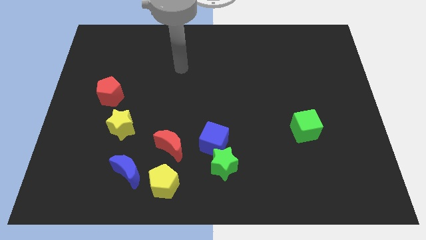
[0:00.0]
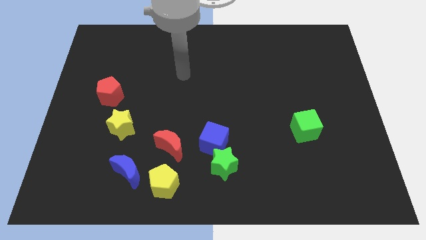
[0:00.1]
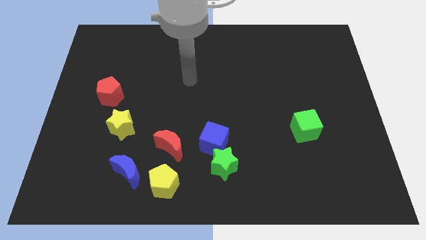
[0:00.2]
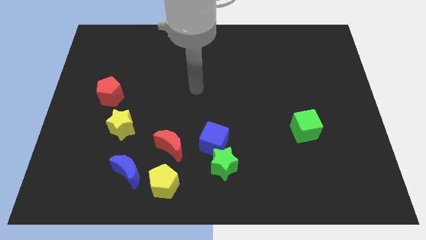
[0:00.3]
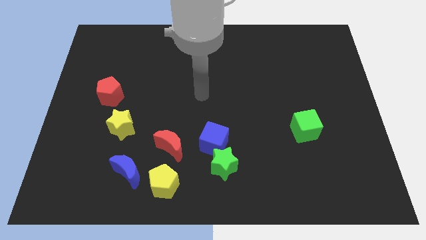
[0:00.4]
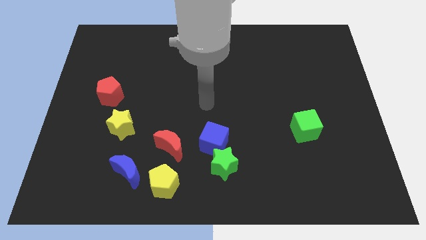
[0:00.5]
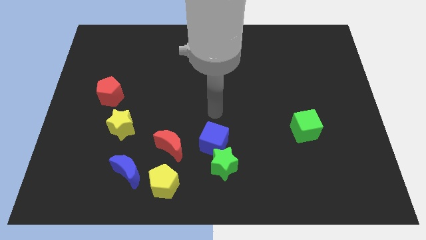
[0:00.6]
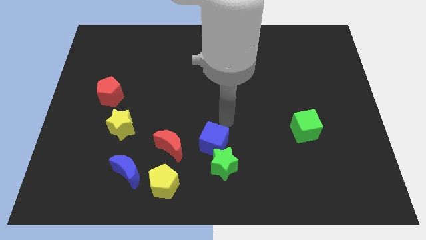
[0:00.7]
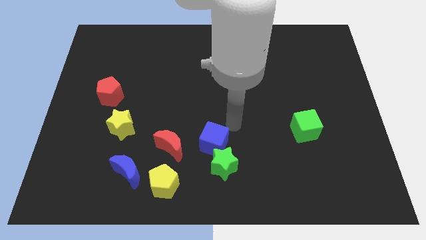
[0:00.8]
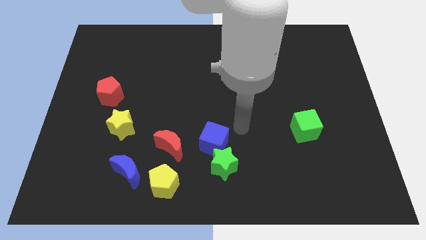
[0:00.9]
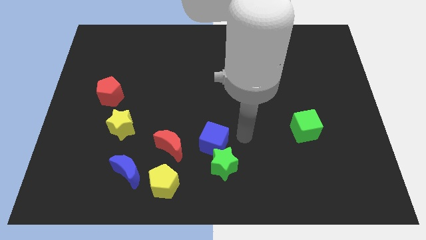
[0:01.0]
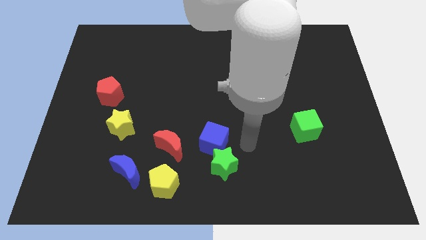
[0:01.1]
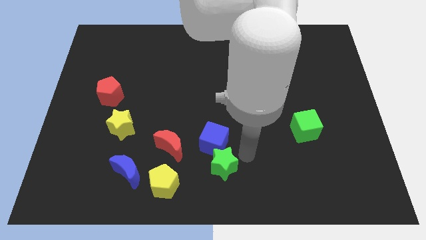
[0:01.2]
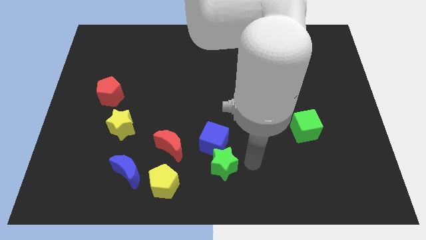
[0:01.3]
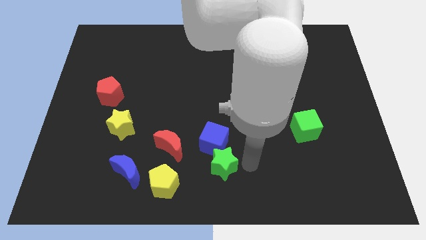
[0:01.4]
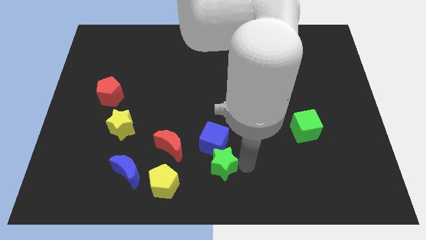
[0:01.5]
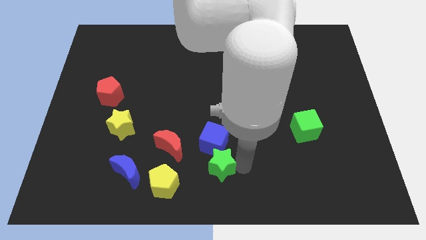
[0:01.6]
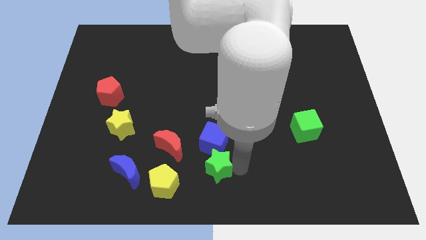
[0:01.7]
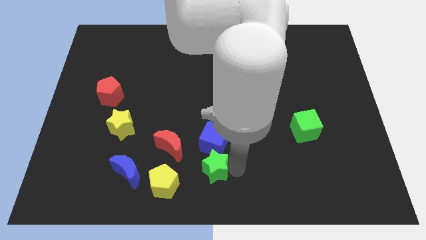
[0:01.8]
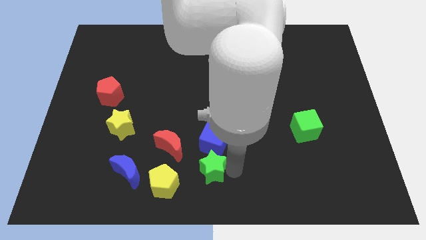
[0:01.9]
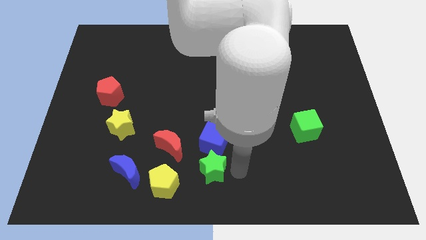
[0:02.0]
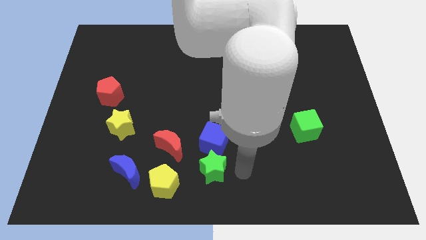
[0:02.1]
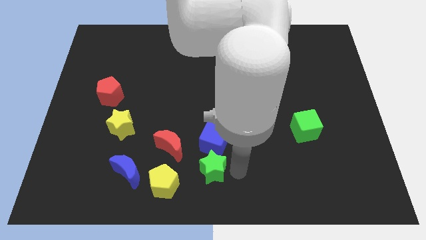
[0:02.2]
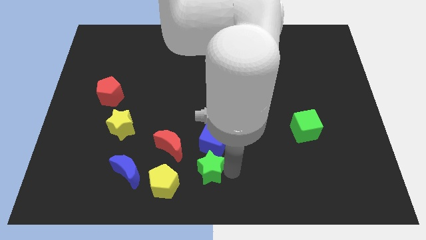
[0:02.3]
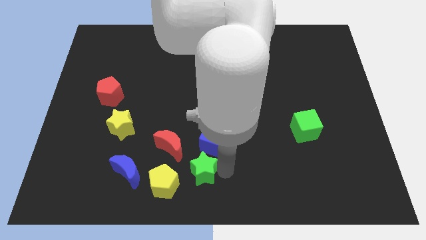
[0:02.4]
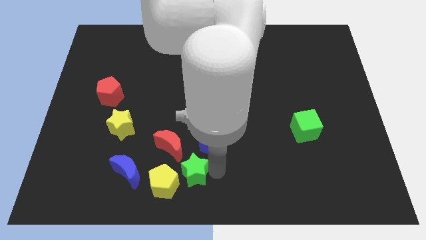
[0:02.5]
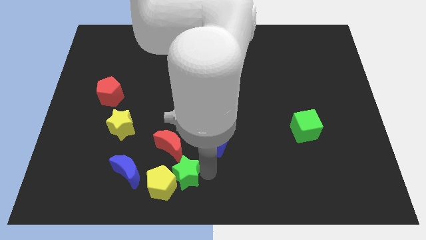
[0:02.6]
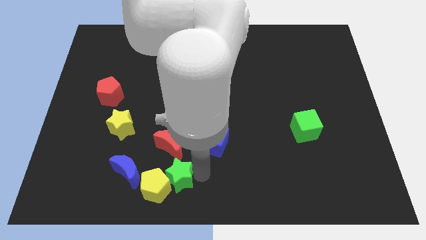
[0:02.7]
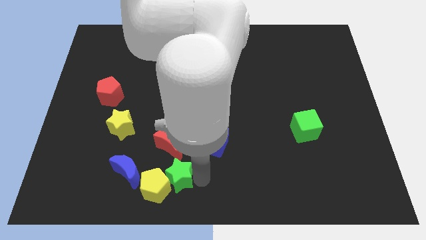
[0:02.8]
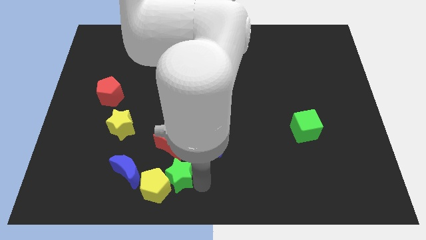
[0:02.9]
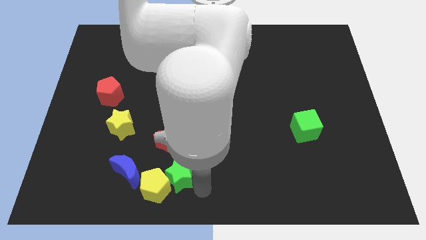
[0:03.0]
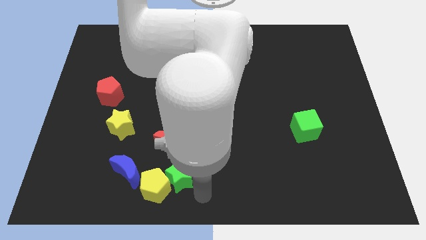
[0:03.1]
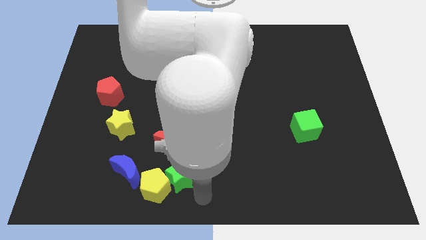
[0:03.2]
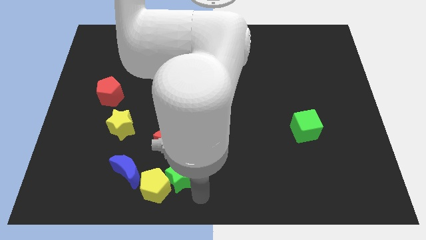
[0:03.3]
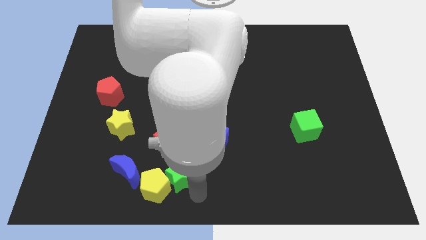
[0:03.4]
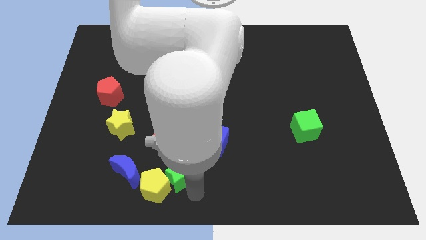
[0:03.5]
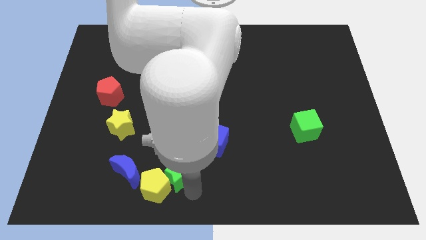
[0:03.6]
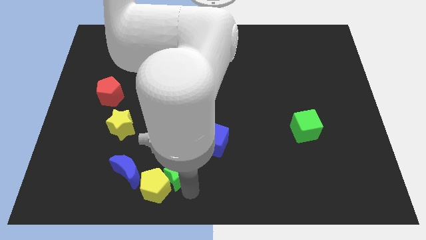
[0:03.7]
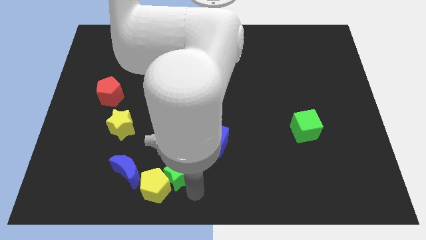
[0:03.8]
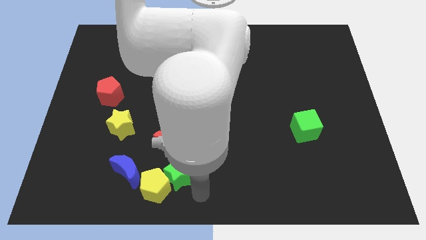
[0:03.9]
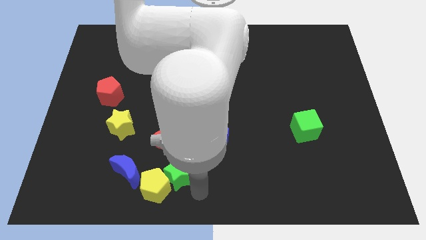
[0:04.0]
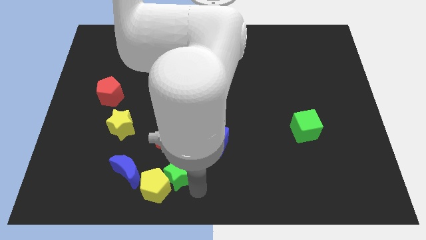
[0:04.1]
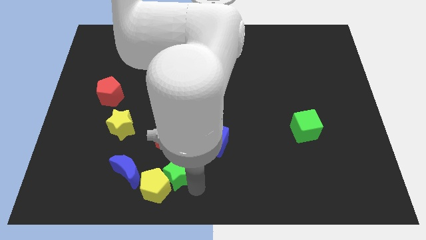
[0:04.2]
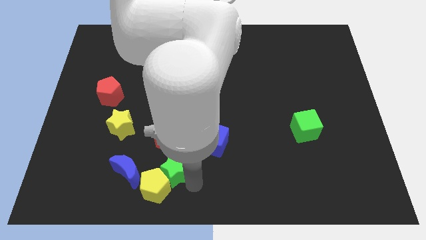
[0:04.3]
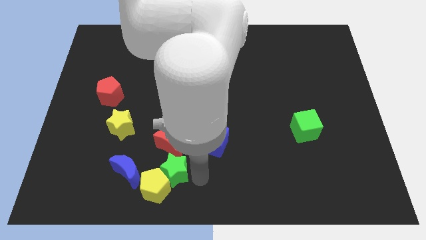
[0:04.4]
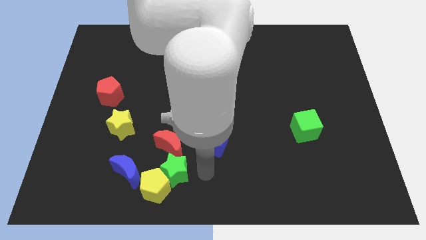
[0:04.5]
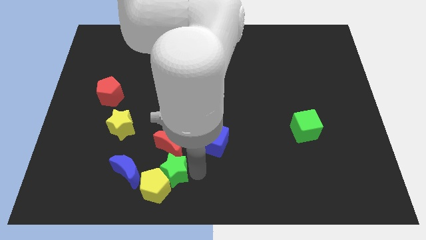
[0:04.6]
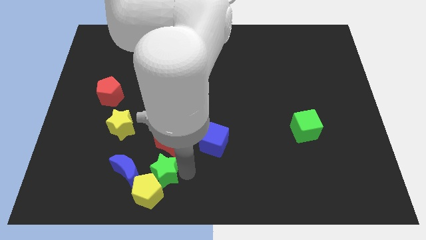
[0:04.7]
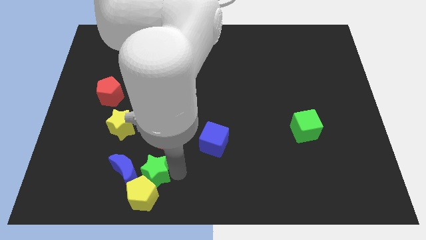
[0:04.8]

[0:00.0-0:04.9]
push the green star towards the blue moon

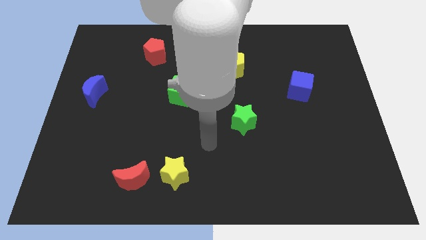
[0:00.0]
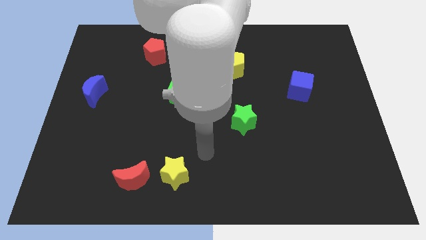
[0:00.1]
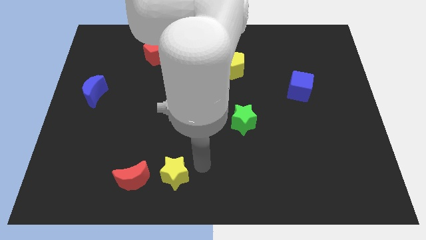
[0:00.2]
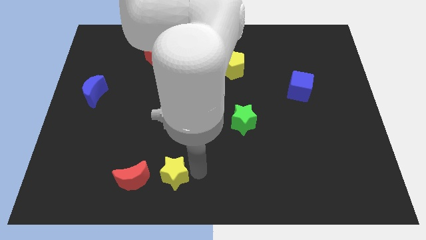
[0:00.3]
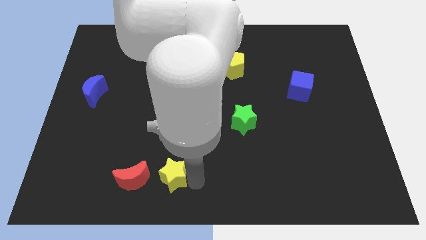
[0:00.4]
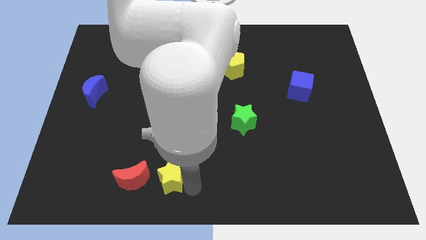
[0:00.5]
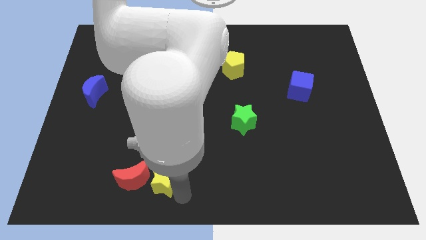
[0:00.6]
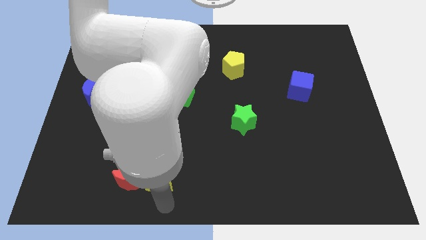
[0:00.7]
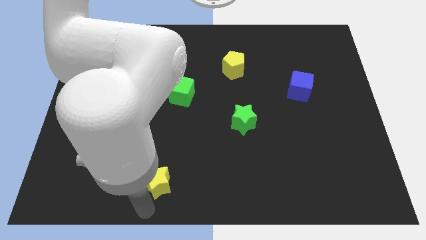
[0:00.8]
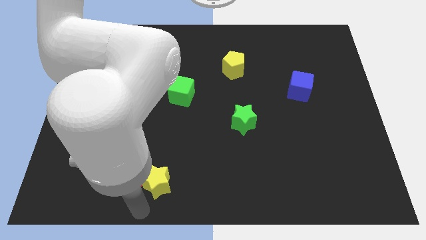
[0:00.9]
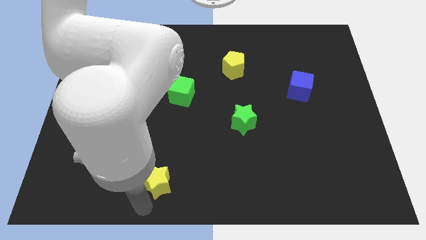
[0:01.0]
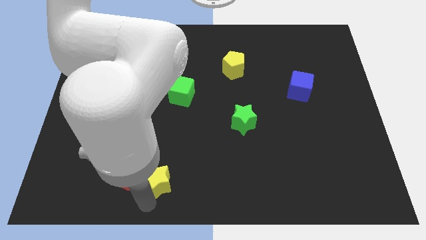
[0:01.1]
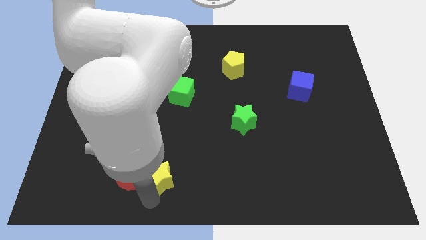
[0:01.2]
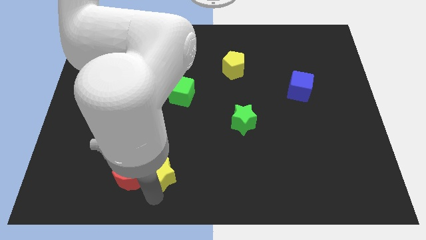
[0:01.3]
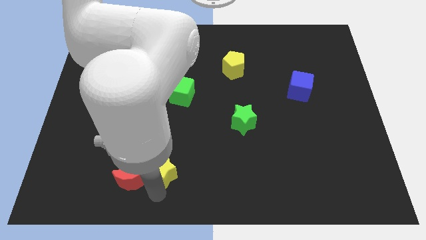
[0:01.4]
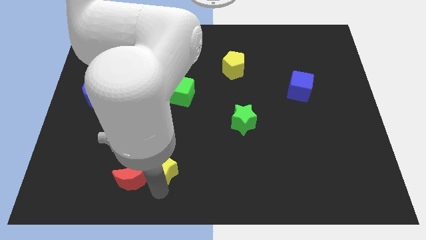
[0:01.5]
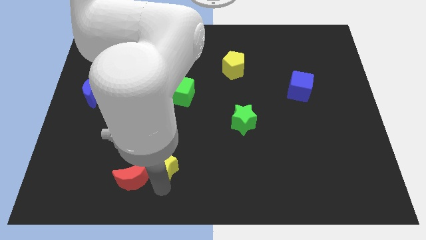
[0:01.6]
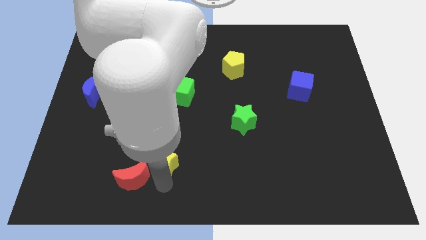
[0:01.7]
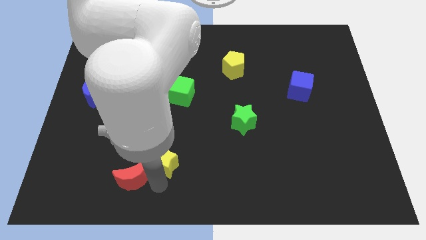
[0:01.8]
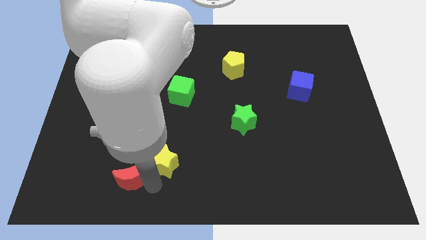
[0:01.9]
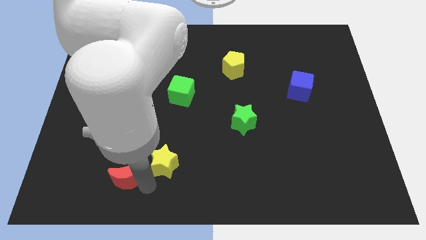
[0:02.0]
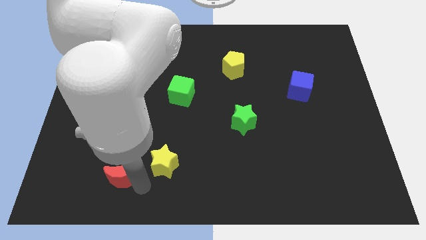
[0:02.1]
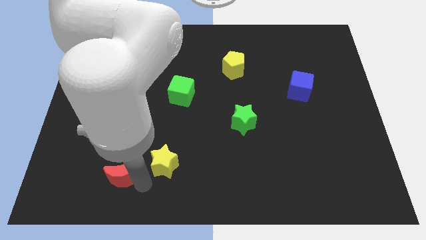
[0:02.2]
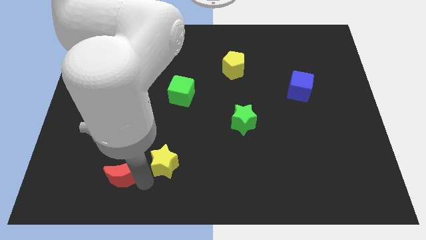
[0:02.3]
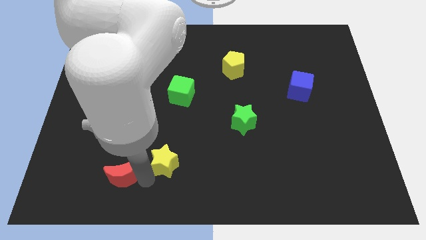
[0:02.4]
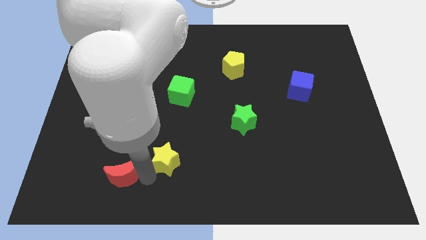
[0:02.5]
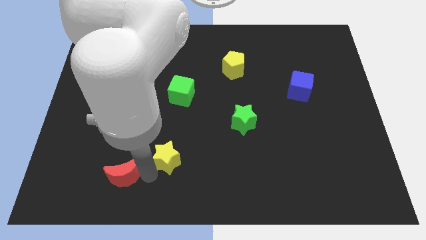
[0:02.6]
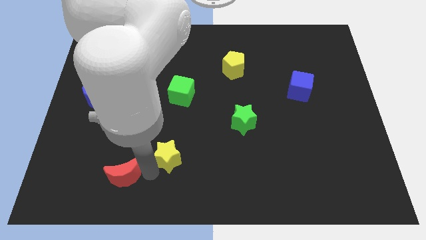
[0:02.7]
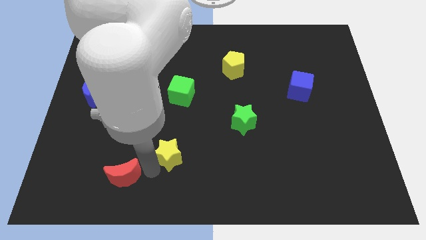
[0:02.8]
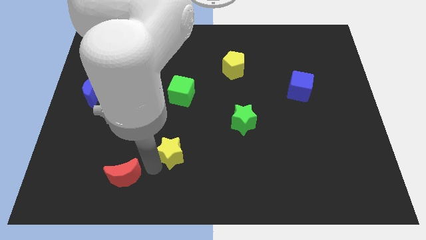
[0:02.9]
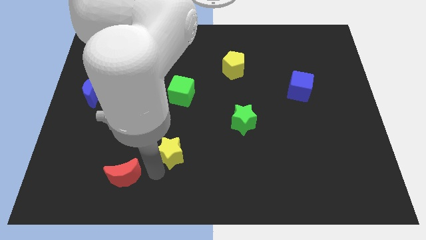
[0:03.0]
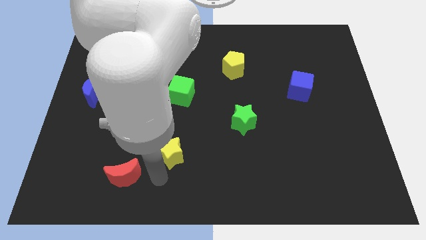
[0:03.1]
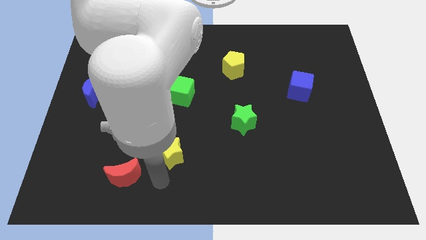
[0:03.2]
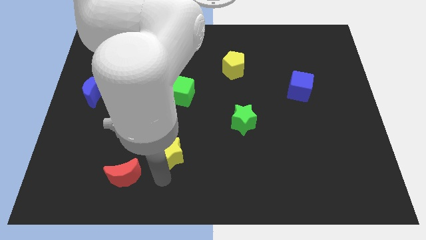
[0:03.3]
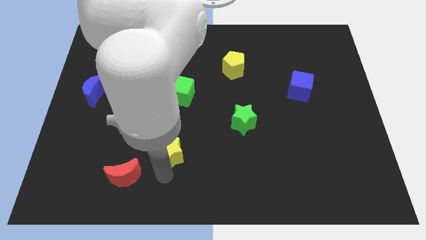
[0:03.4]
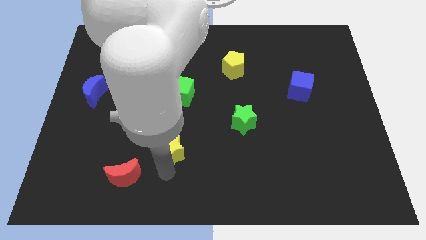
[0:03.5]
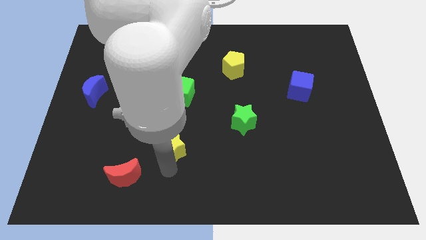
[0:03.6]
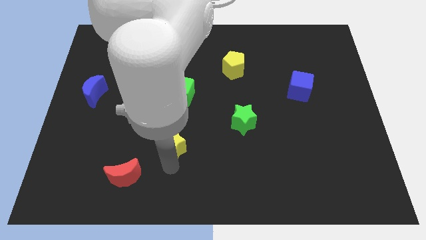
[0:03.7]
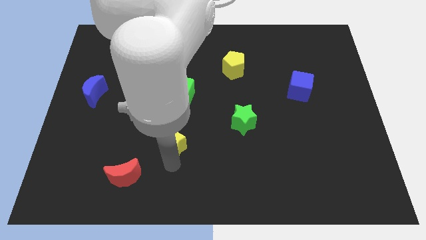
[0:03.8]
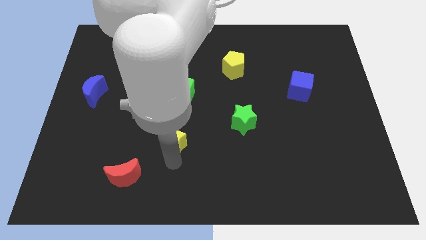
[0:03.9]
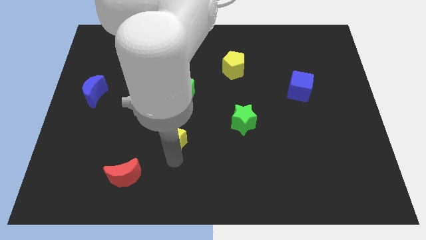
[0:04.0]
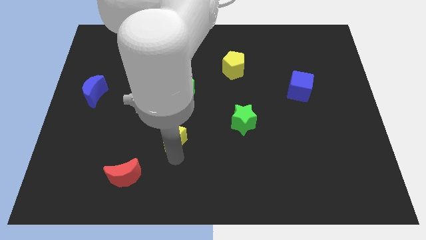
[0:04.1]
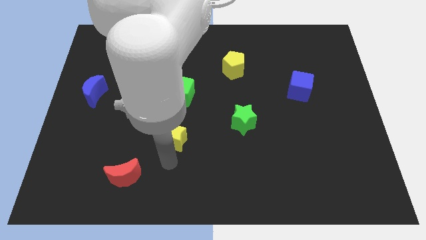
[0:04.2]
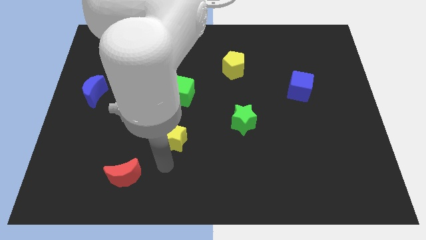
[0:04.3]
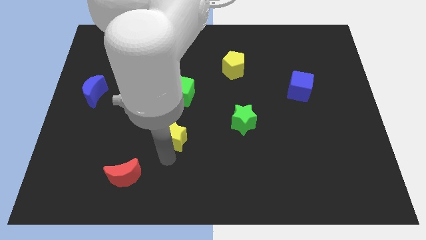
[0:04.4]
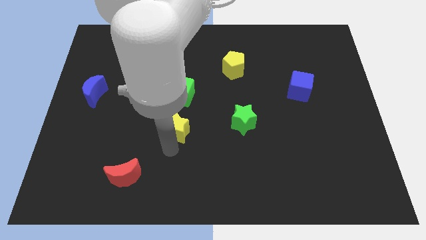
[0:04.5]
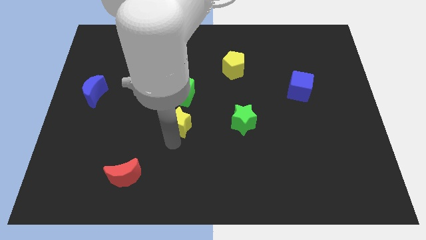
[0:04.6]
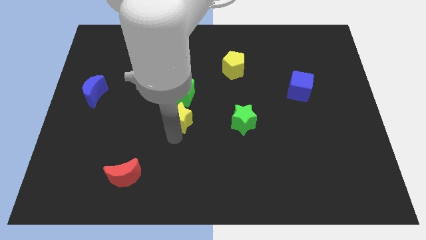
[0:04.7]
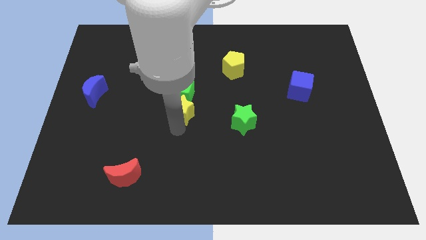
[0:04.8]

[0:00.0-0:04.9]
put the yellow star close to the green cube
